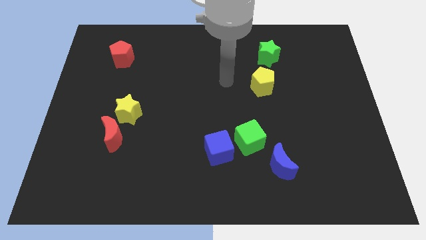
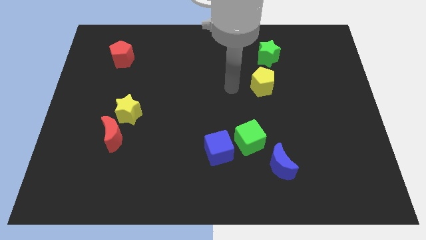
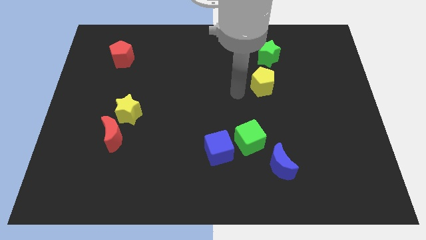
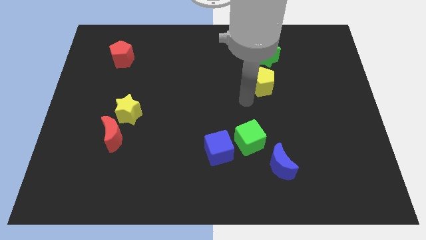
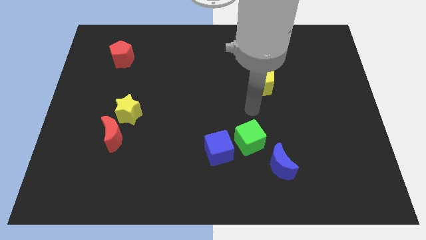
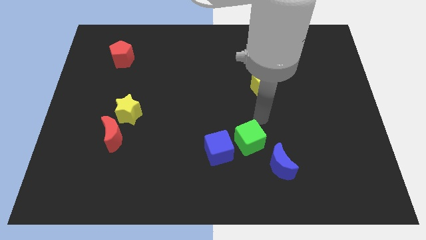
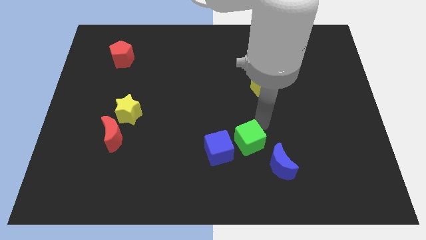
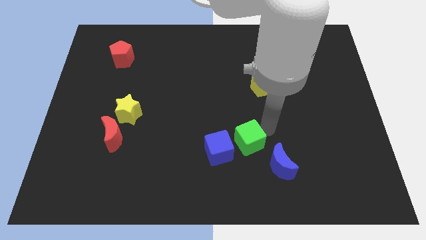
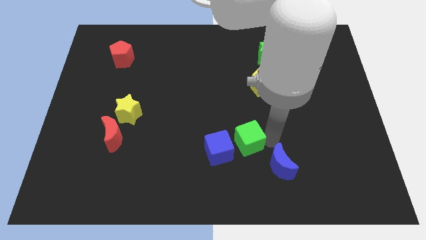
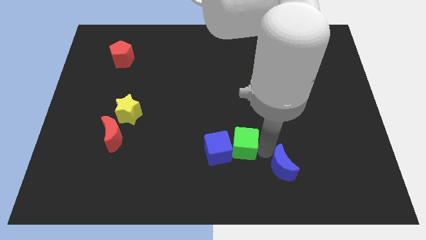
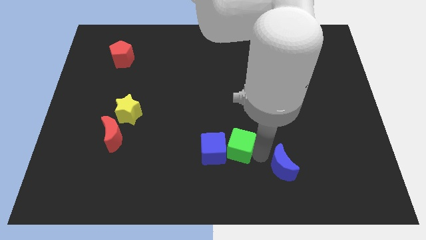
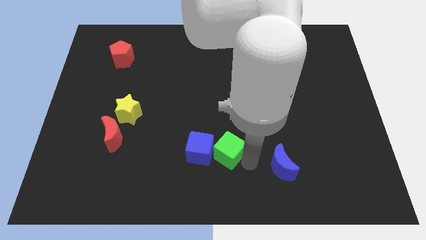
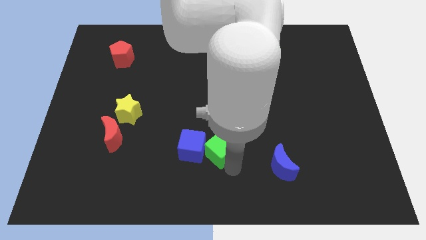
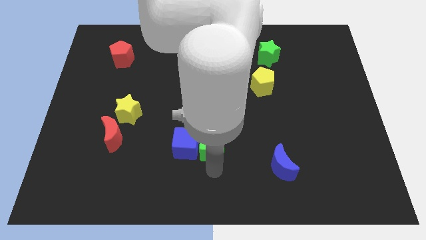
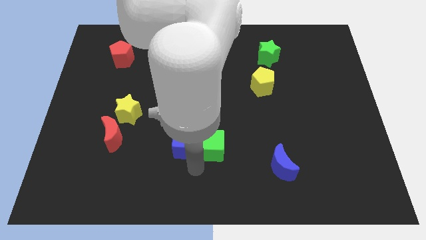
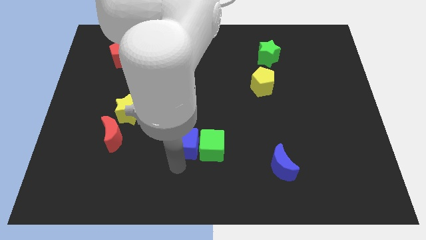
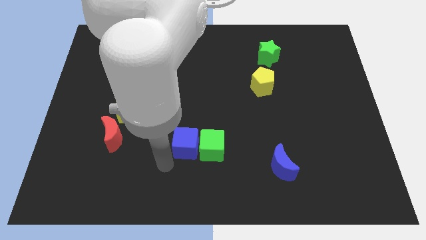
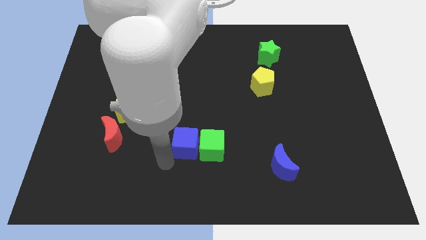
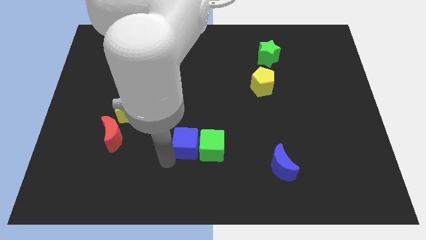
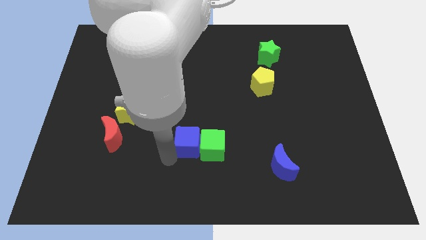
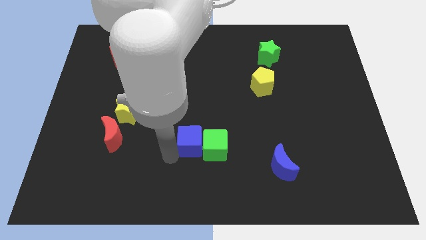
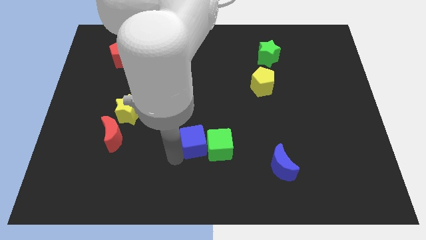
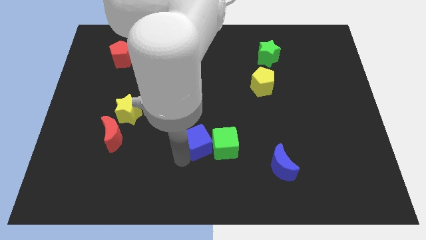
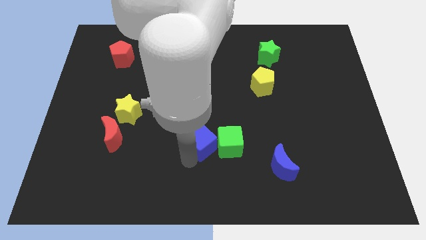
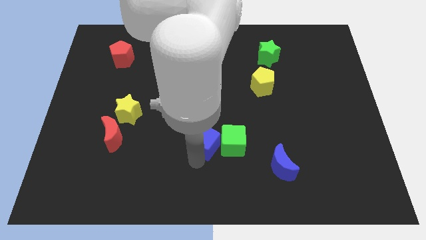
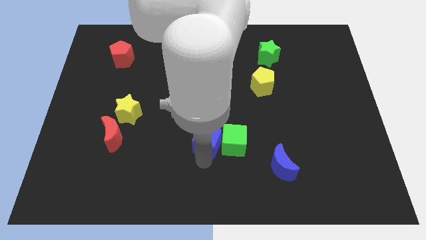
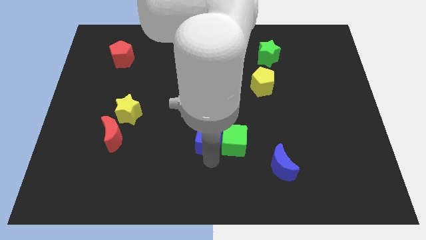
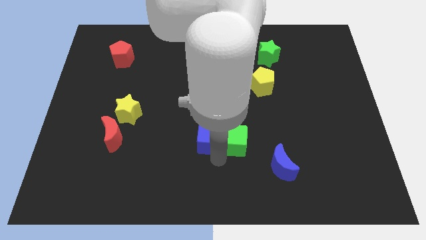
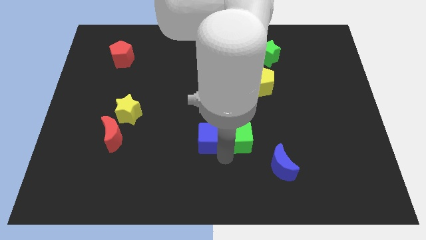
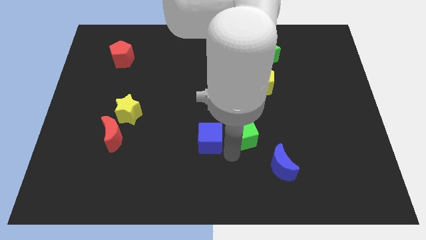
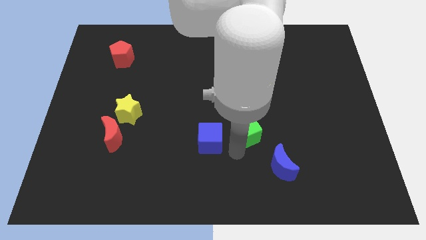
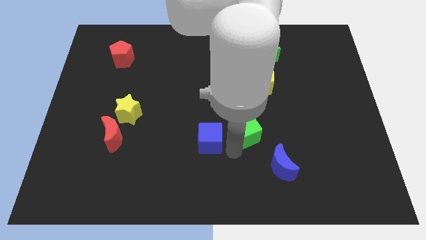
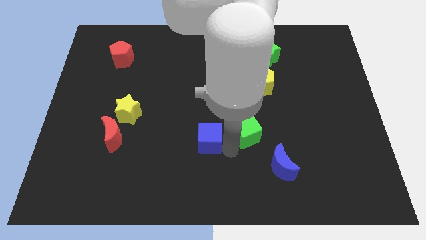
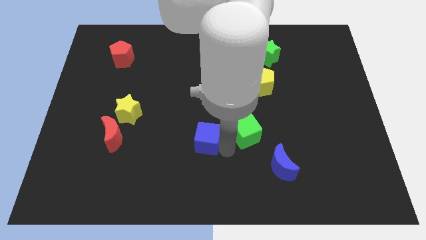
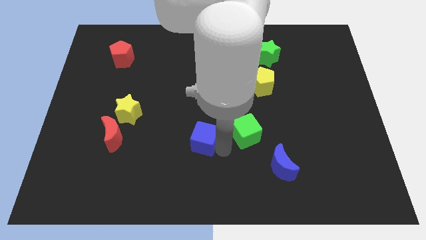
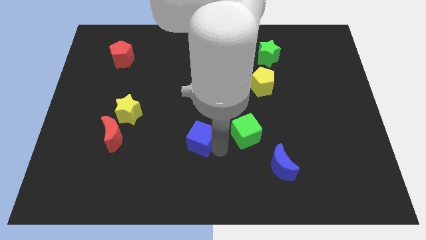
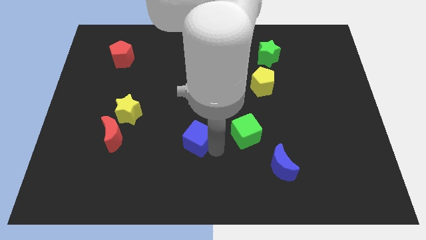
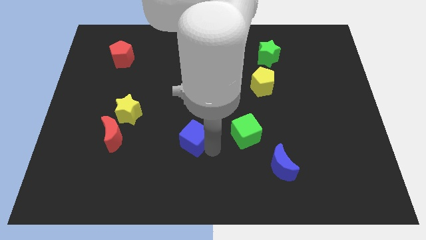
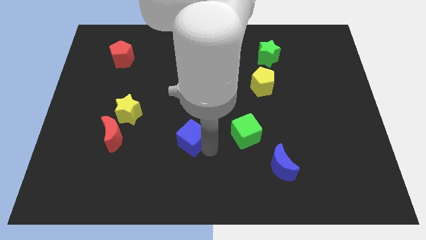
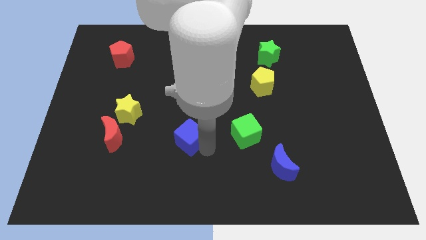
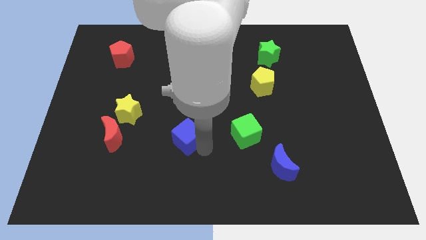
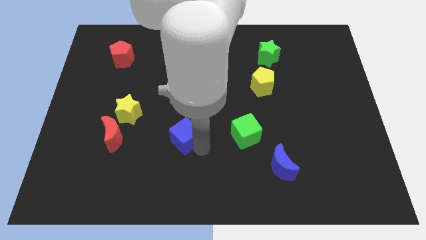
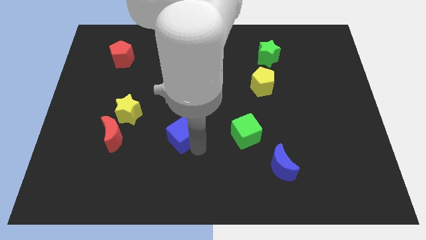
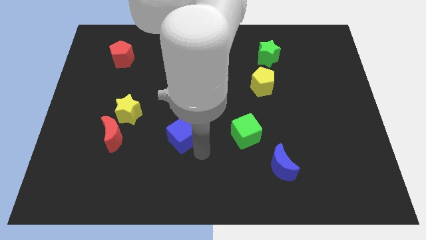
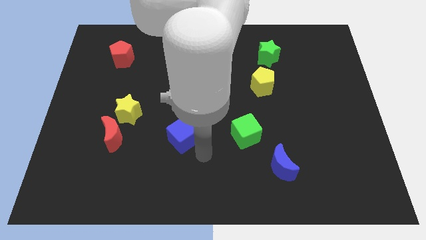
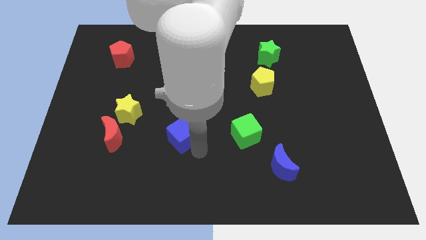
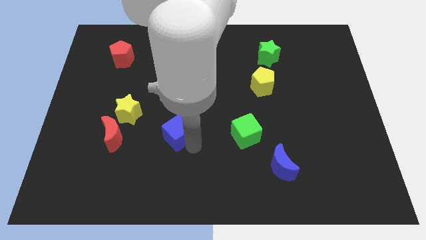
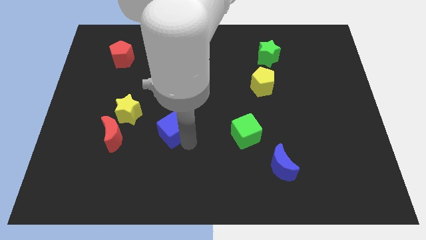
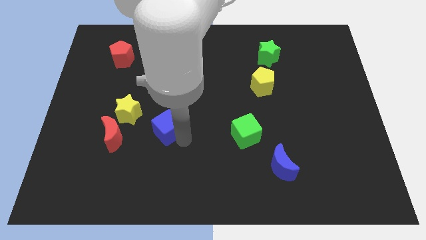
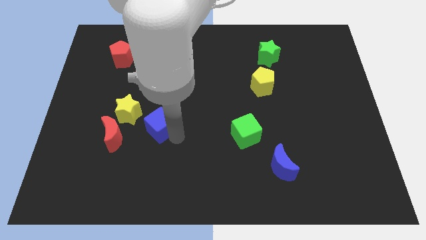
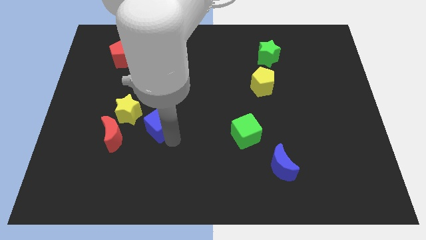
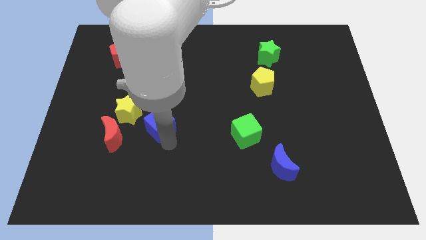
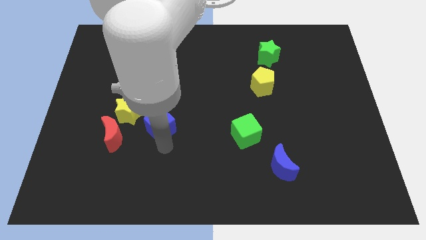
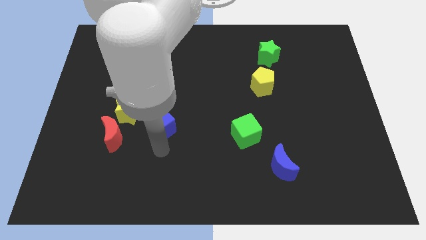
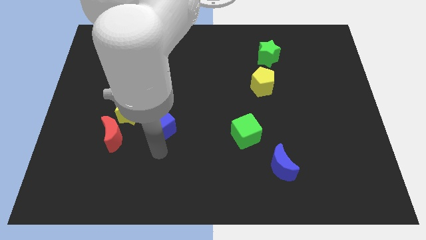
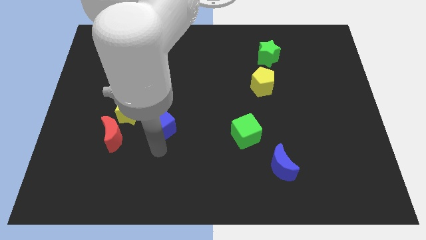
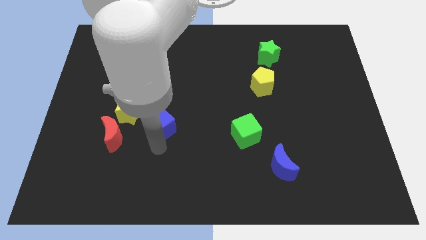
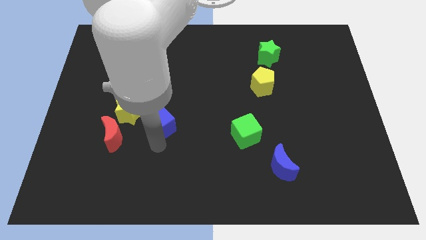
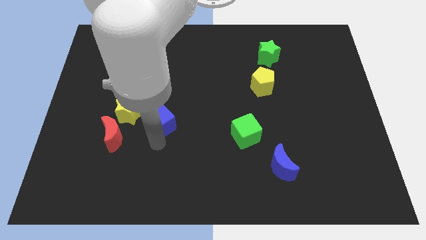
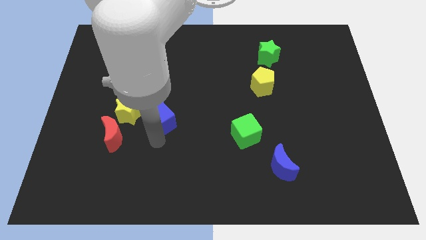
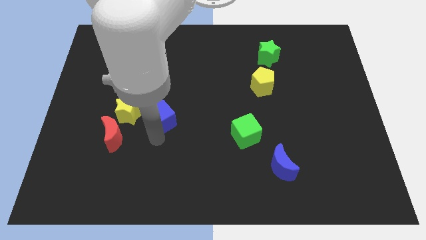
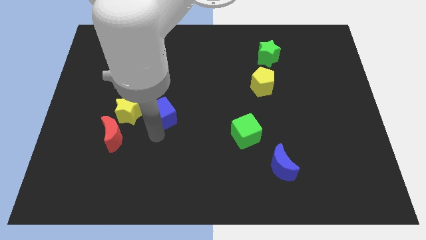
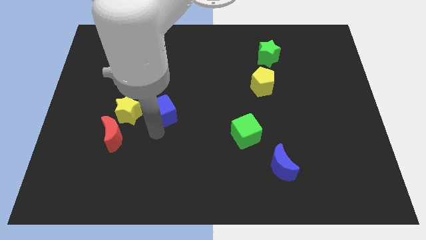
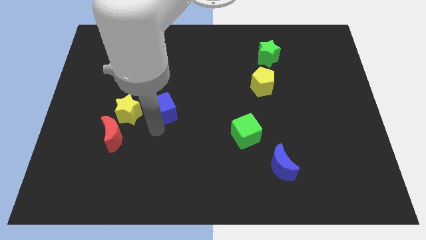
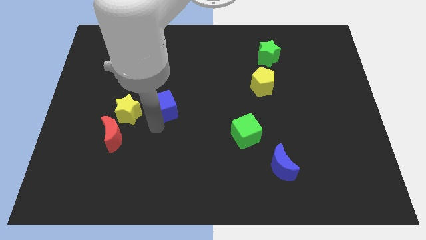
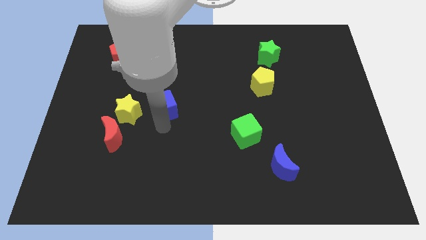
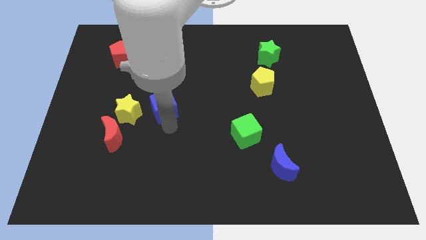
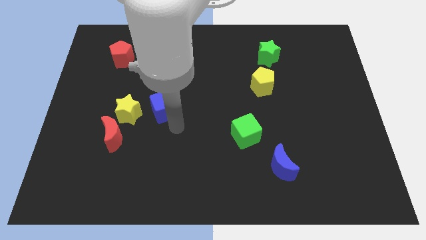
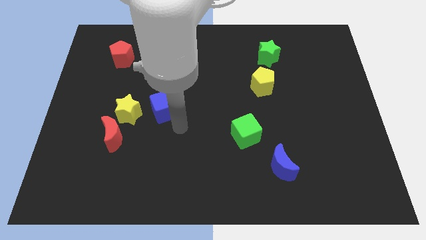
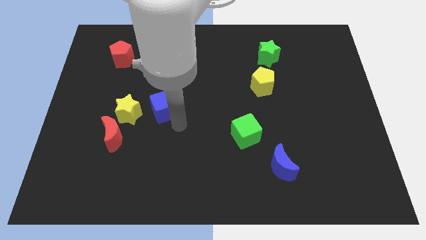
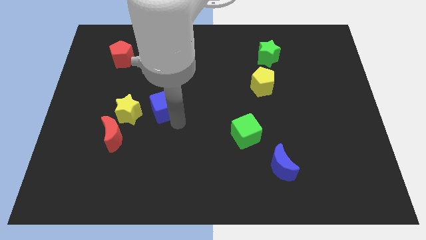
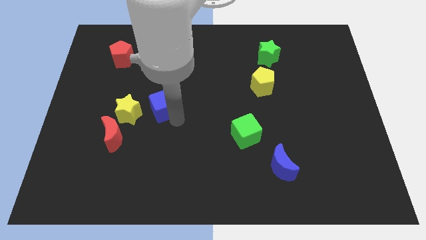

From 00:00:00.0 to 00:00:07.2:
slide the blue cube diagonally up and to the right of the yellow star
